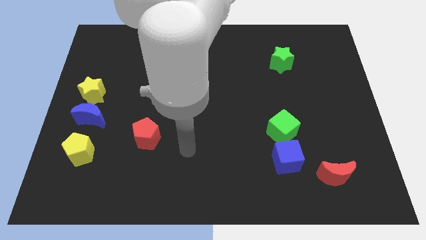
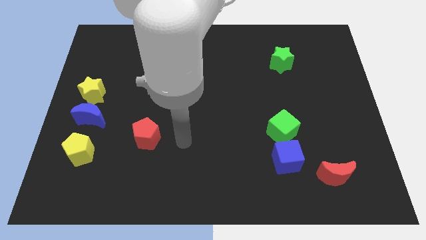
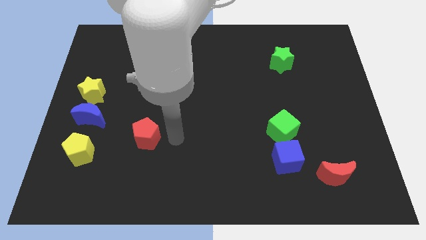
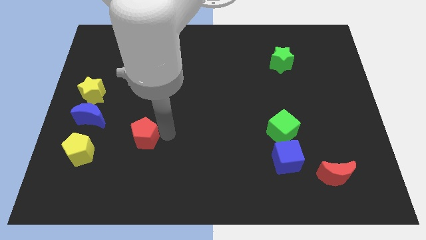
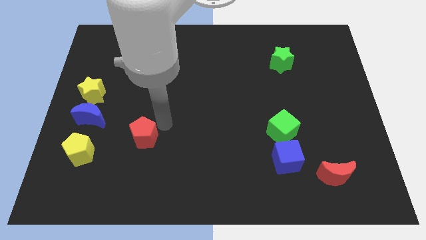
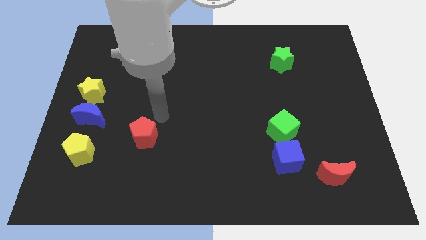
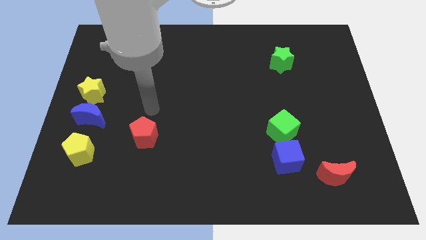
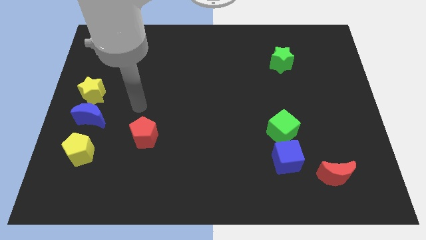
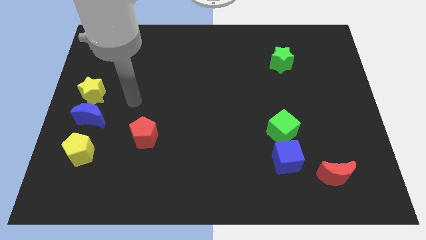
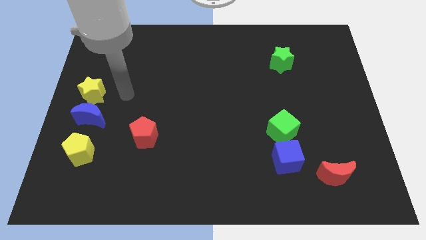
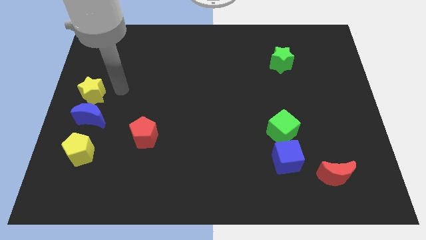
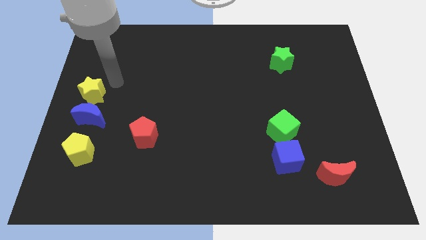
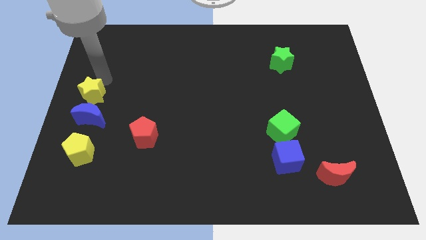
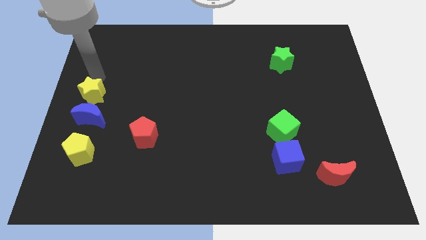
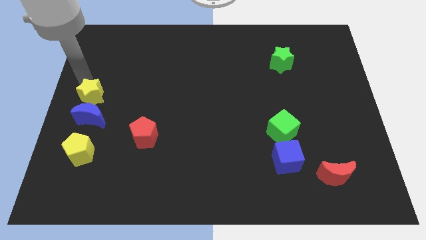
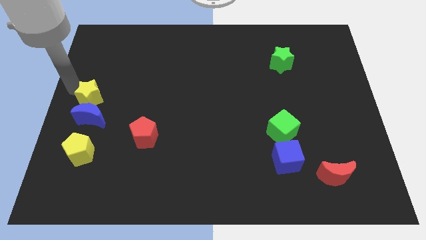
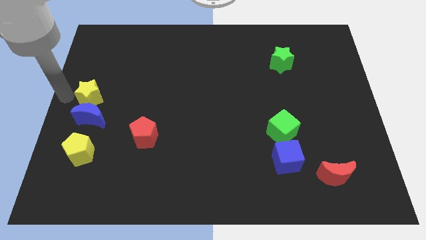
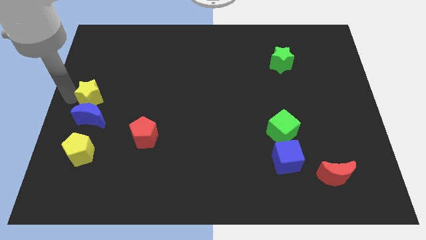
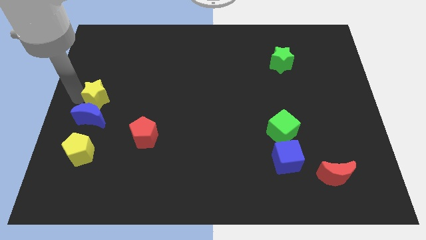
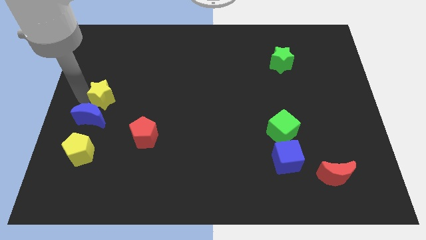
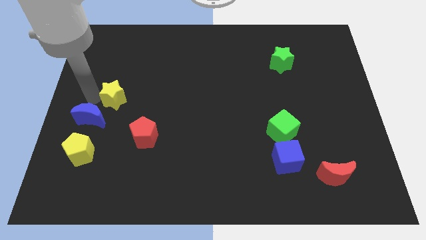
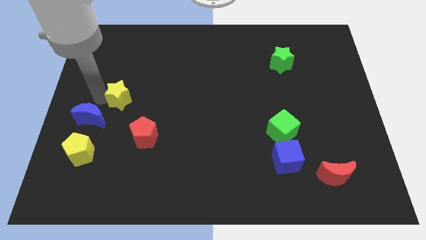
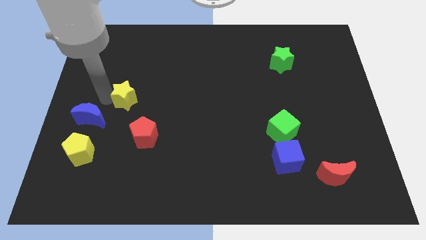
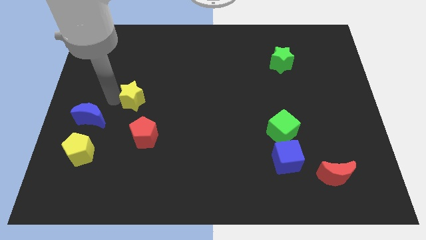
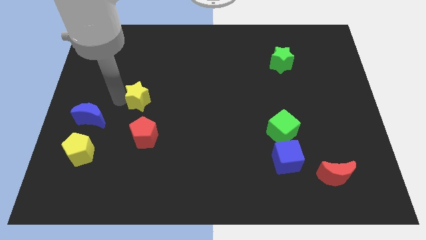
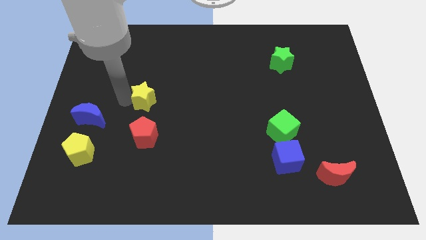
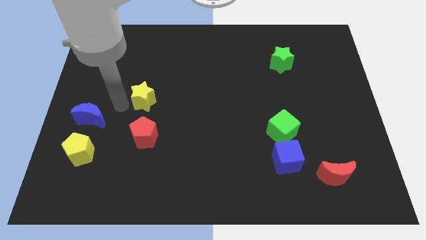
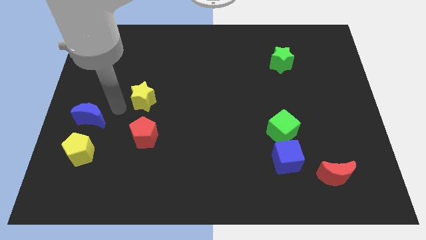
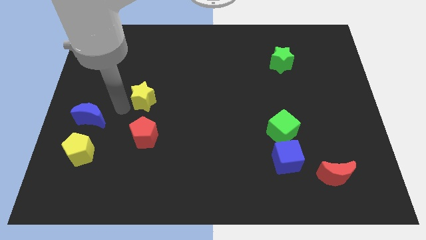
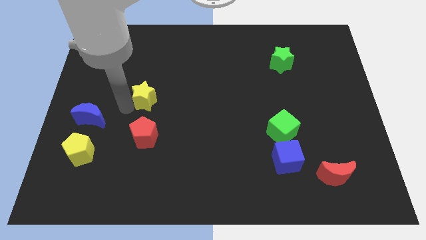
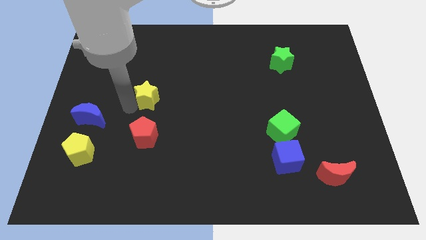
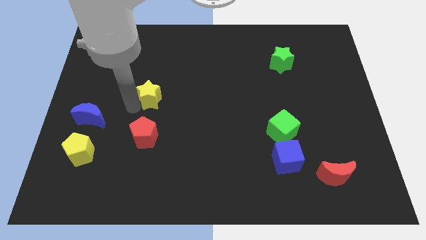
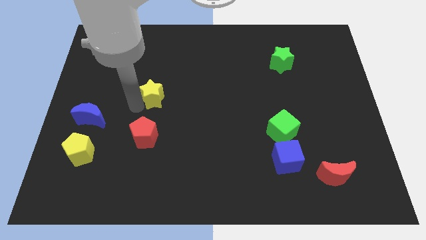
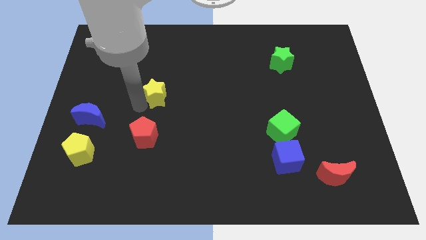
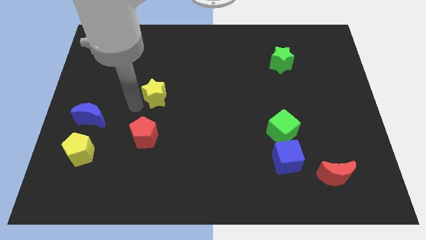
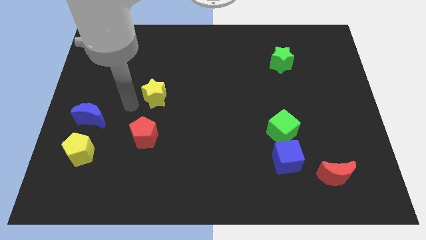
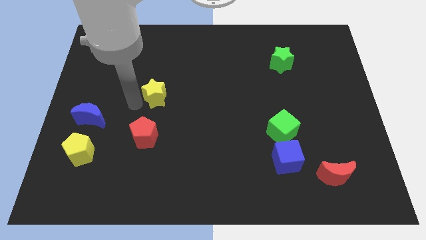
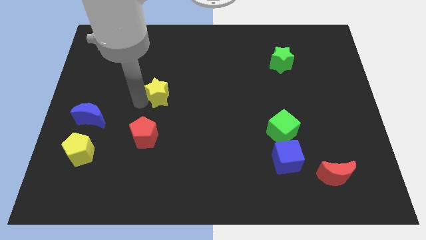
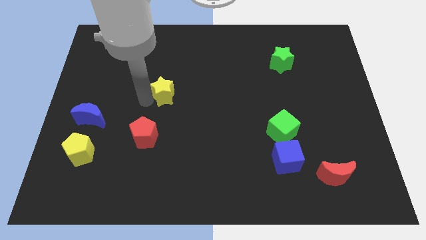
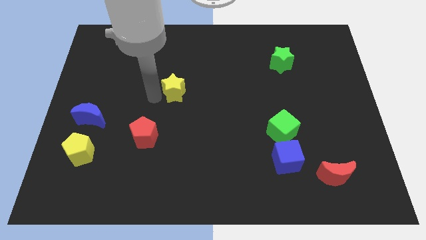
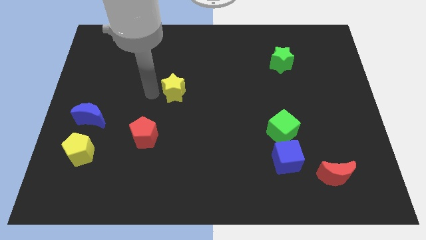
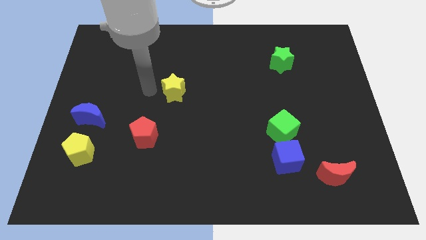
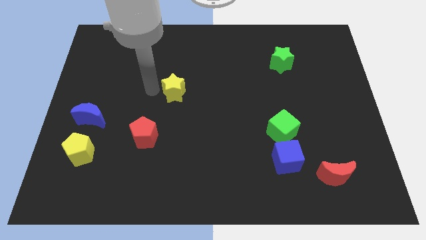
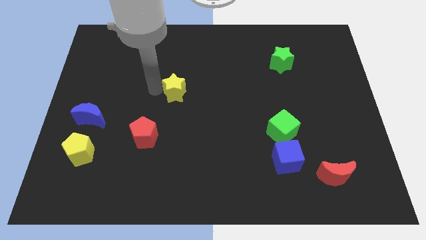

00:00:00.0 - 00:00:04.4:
move the yellow star to the right

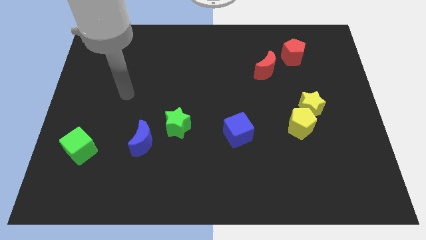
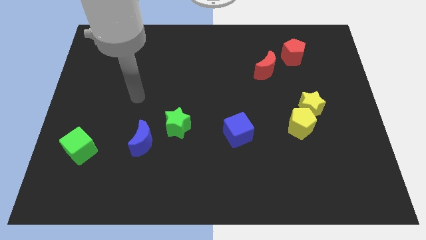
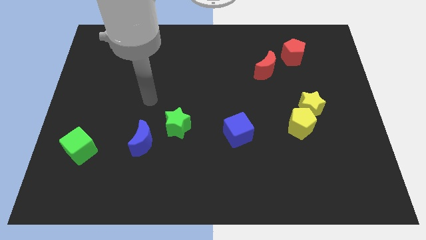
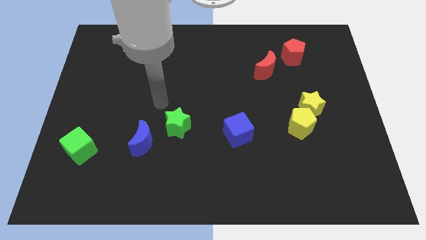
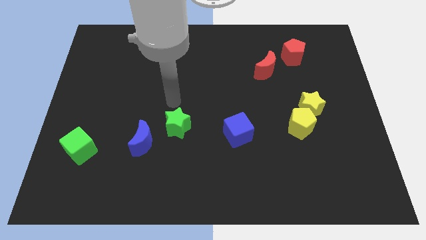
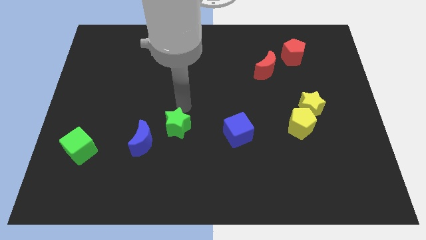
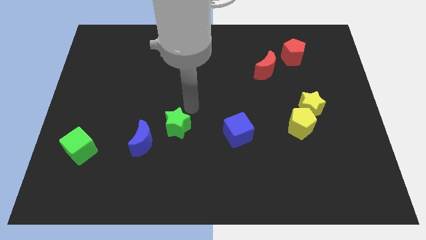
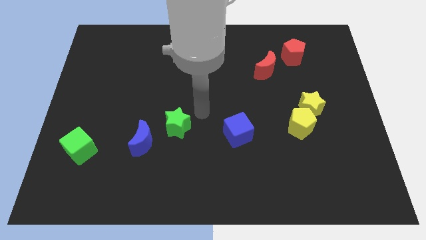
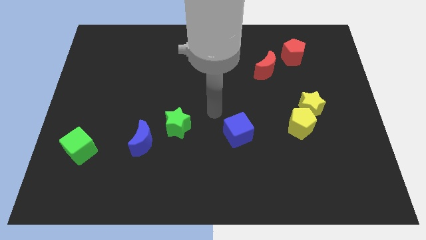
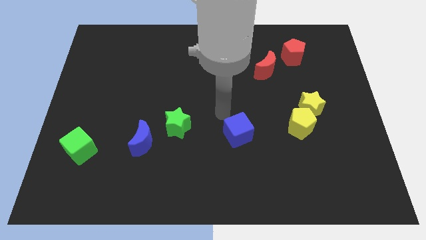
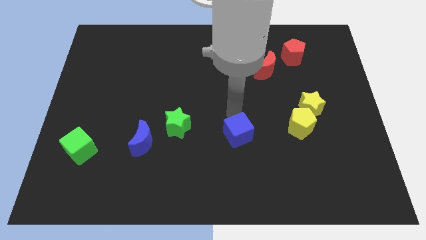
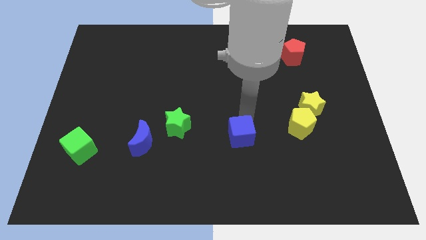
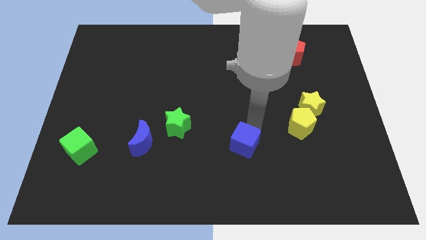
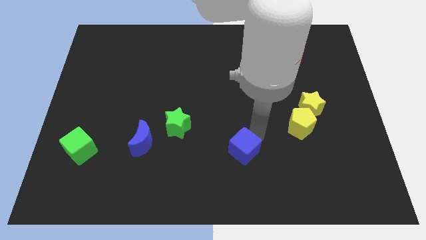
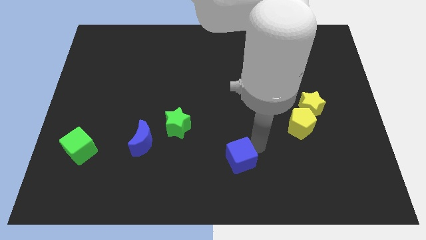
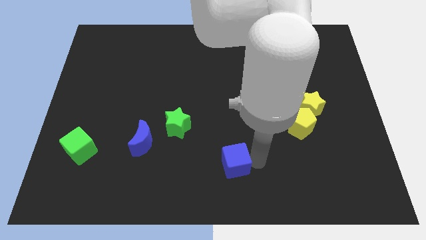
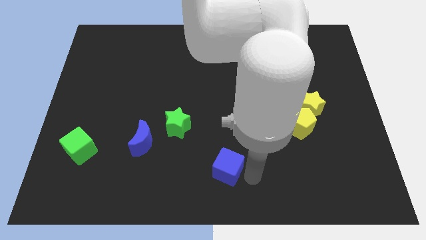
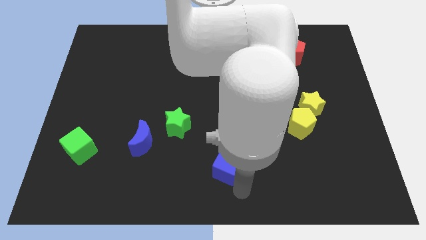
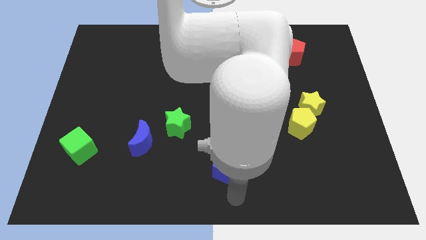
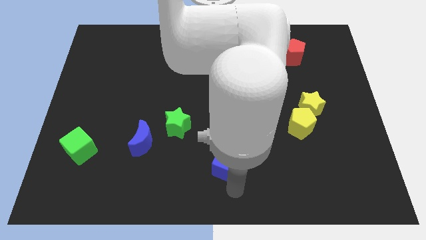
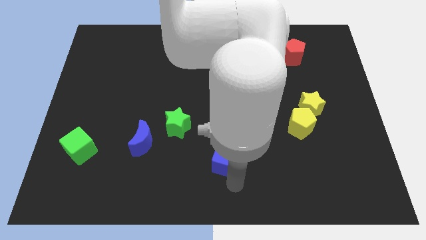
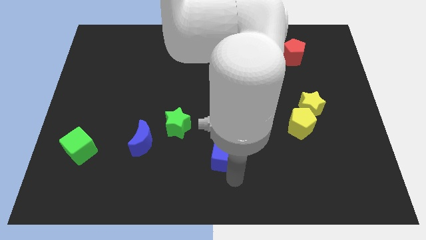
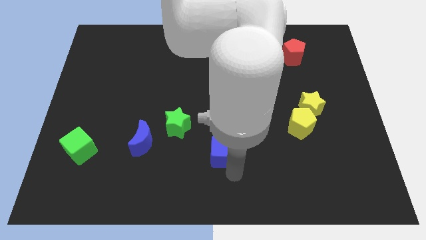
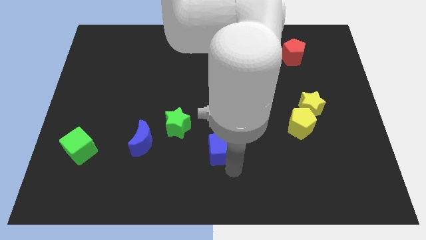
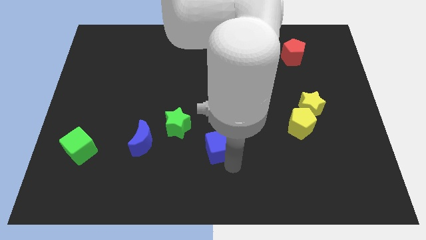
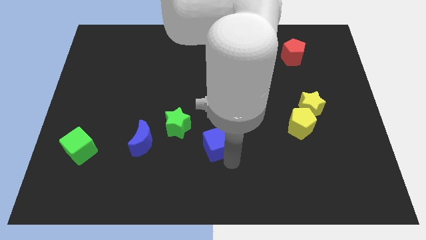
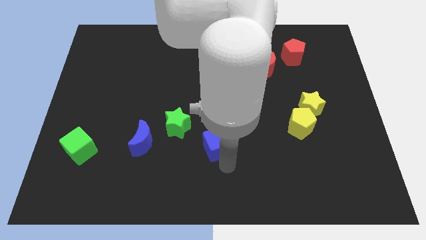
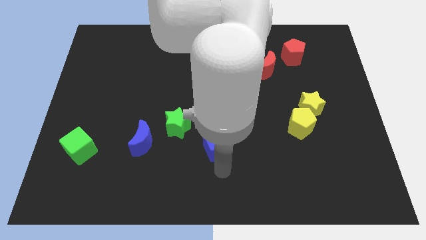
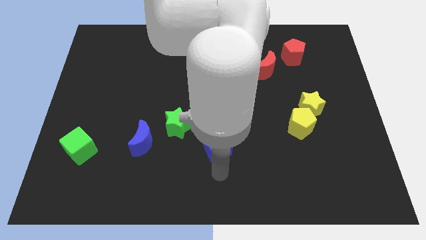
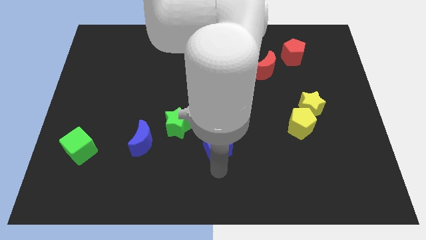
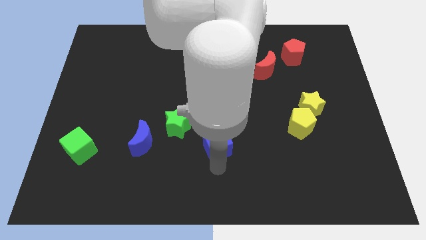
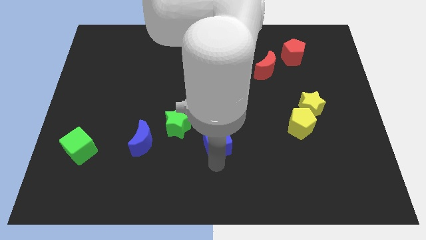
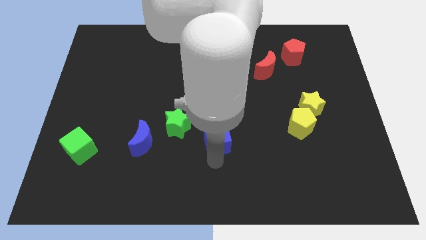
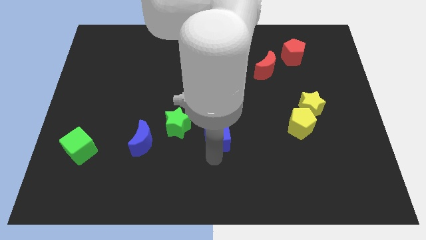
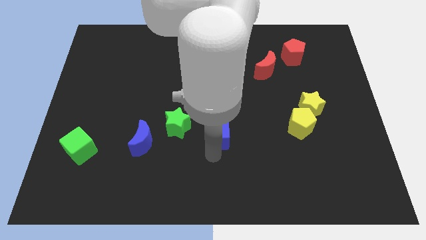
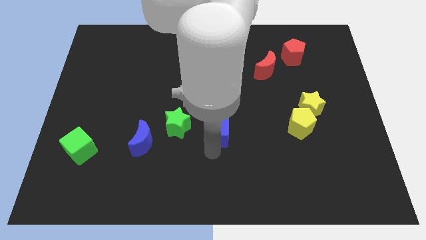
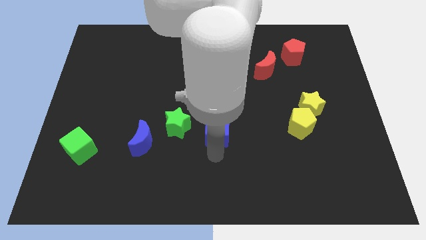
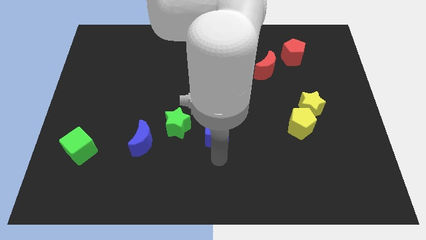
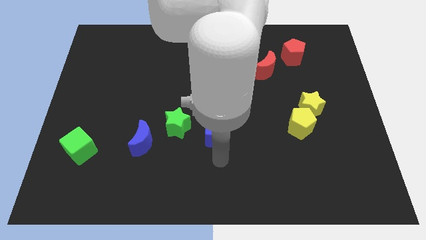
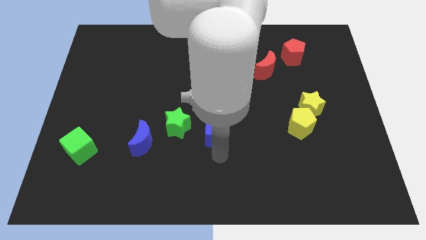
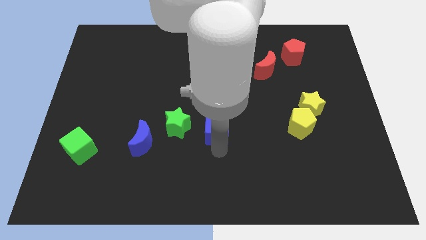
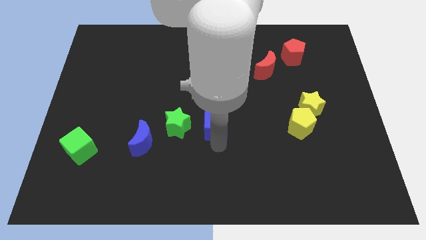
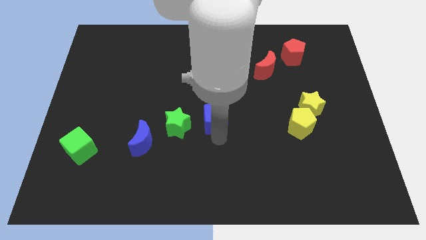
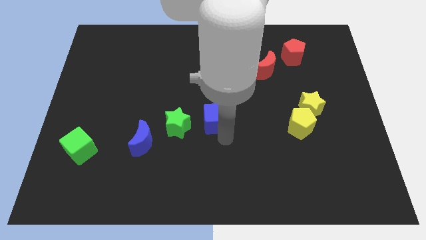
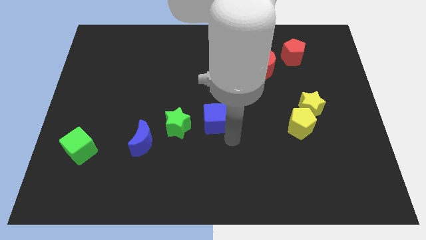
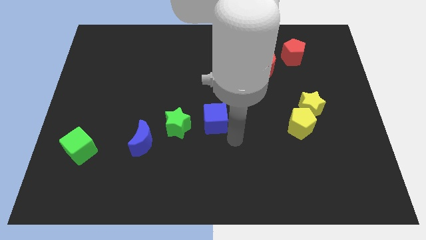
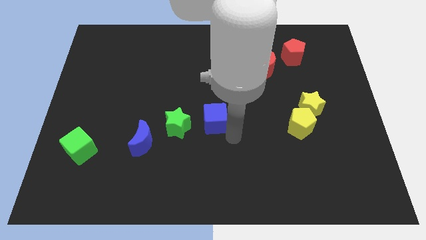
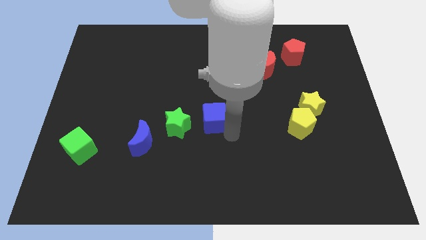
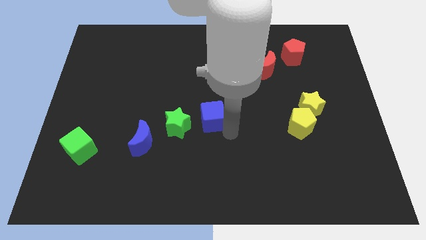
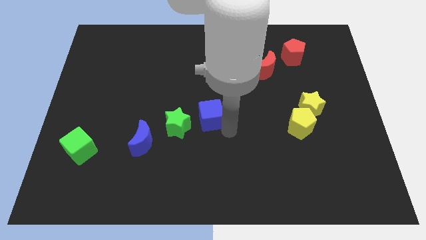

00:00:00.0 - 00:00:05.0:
slide the blue cube a bit diagonally up and left
